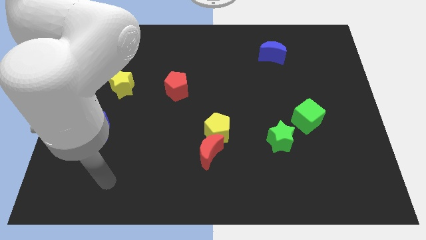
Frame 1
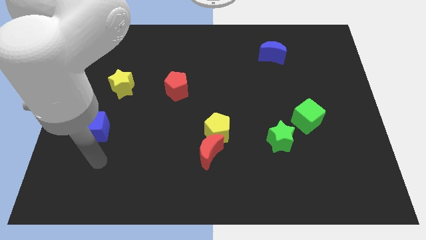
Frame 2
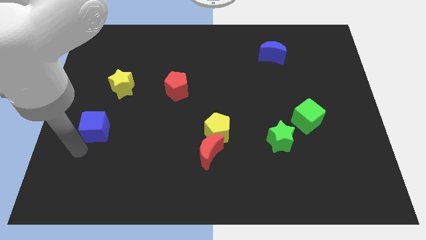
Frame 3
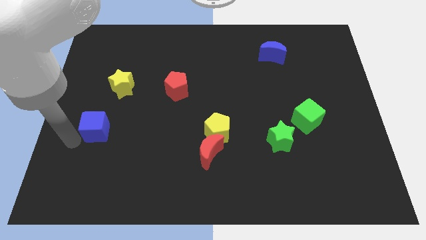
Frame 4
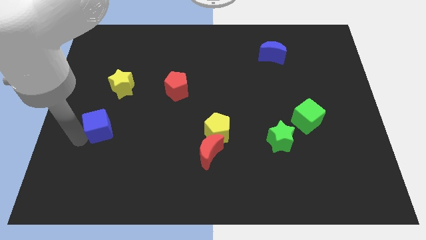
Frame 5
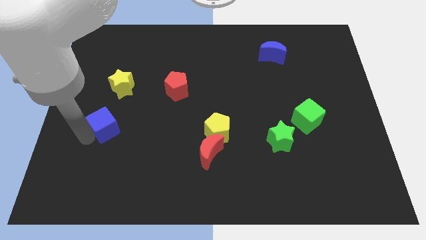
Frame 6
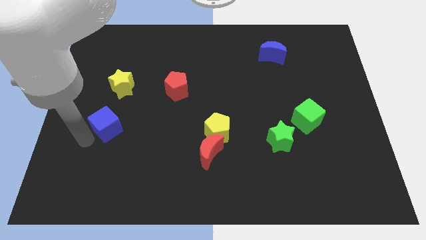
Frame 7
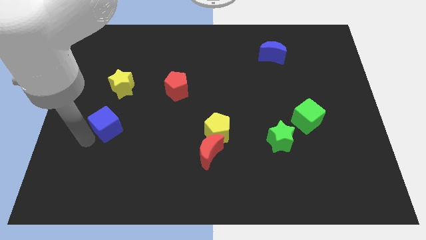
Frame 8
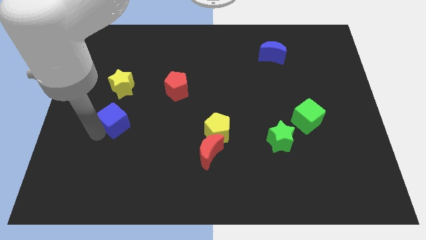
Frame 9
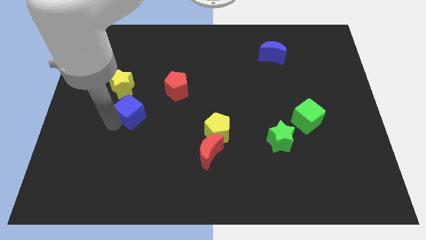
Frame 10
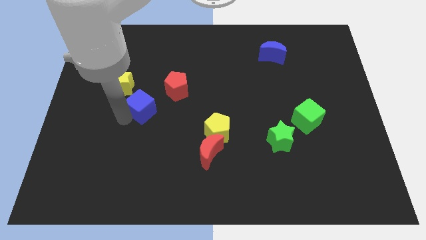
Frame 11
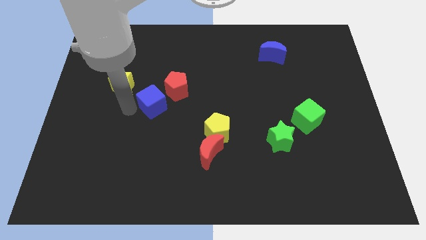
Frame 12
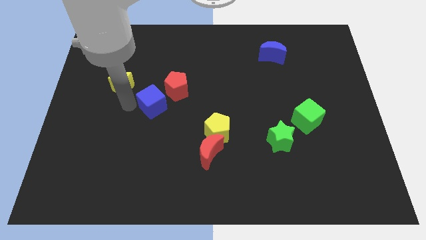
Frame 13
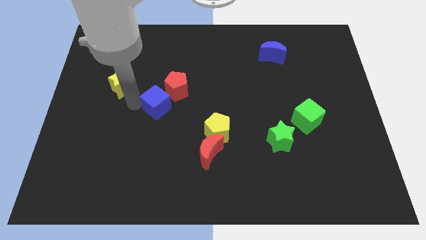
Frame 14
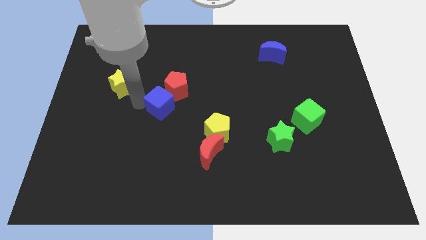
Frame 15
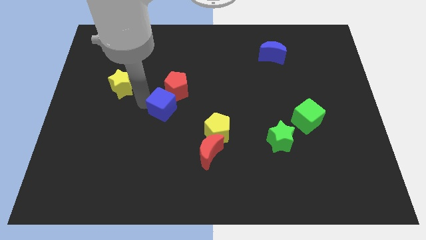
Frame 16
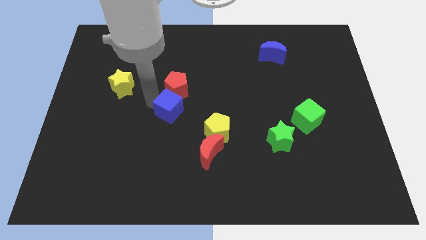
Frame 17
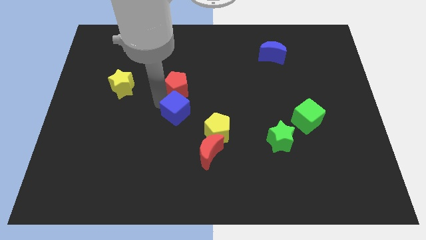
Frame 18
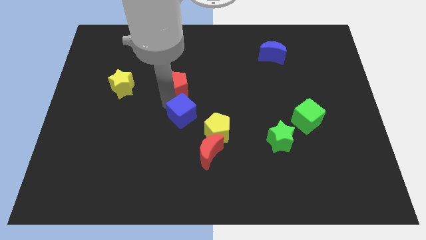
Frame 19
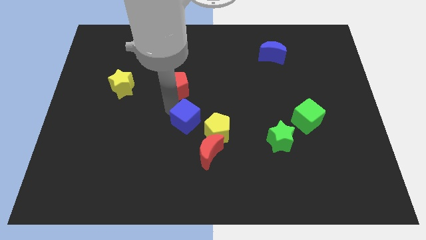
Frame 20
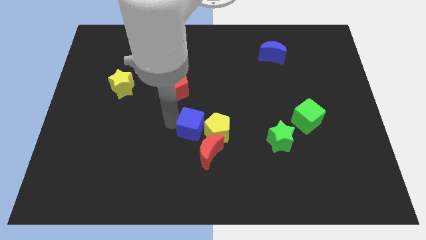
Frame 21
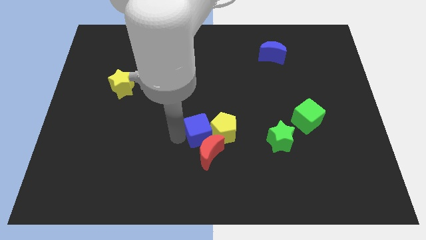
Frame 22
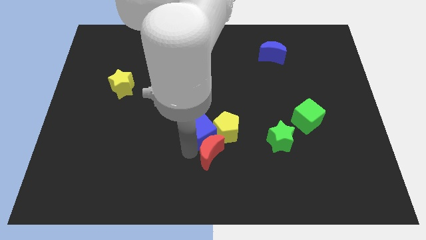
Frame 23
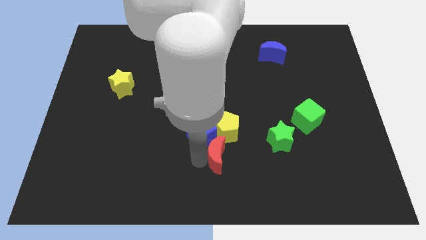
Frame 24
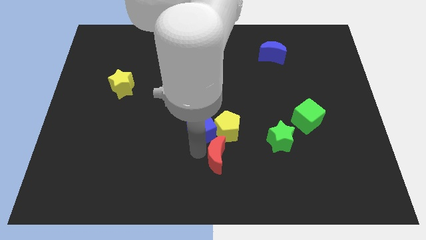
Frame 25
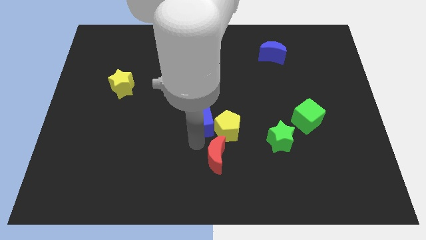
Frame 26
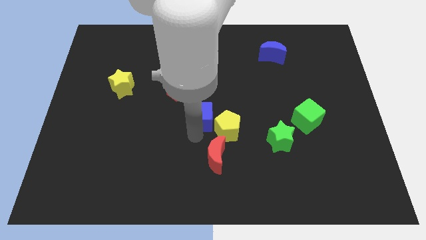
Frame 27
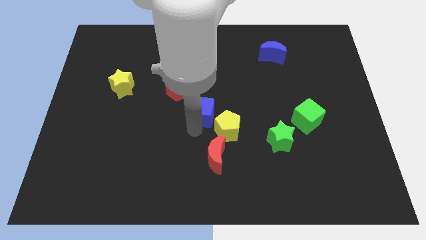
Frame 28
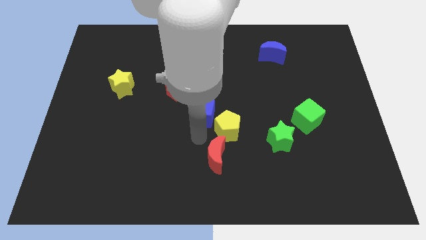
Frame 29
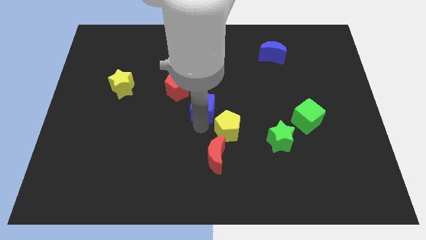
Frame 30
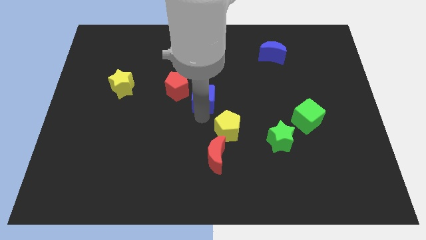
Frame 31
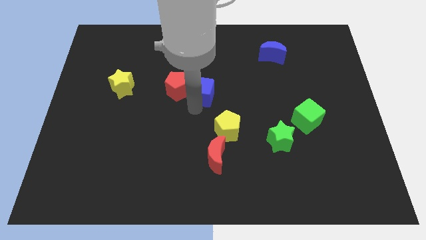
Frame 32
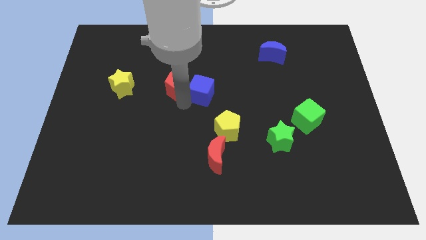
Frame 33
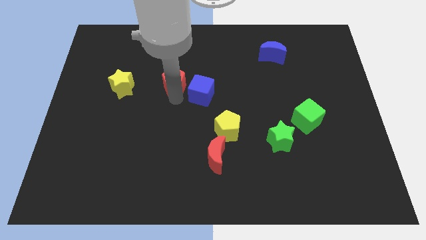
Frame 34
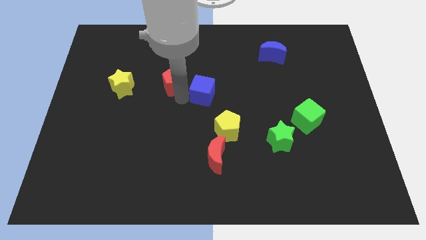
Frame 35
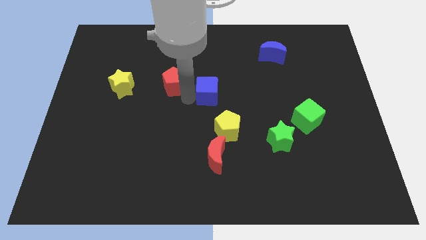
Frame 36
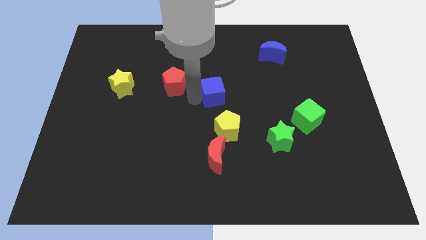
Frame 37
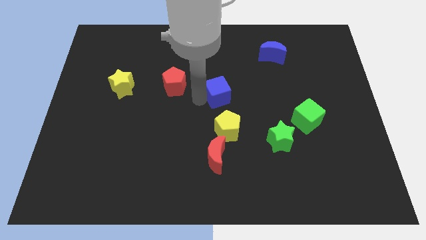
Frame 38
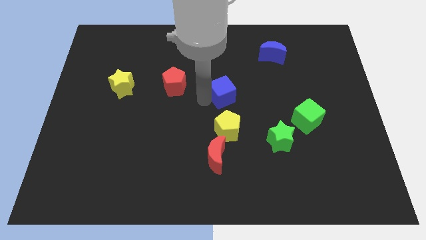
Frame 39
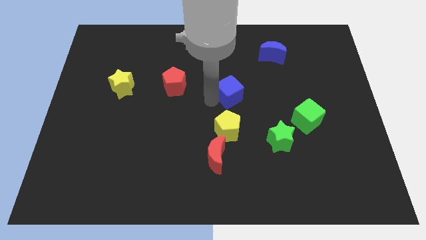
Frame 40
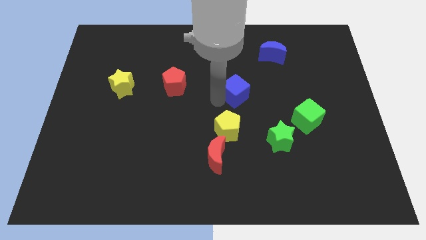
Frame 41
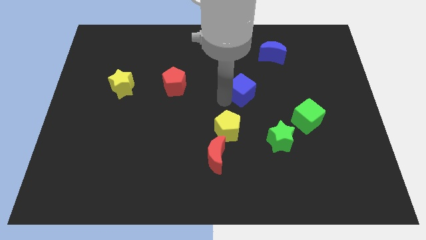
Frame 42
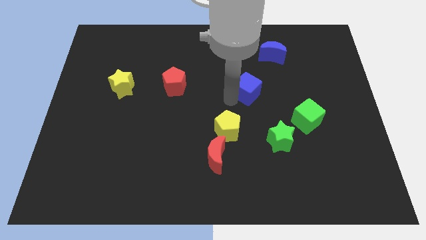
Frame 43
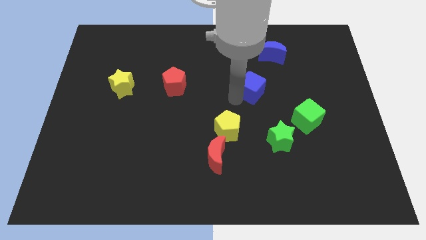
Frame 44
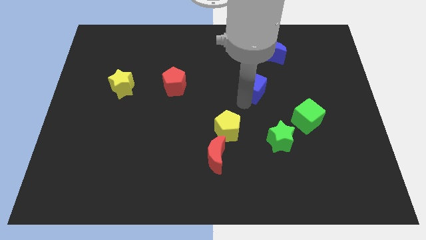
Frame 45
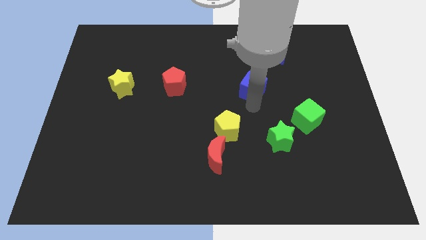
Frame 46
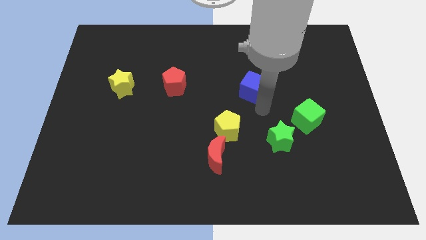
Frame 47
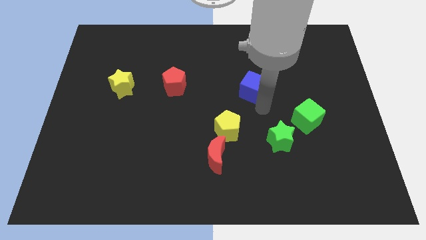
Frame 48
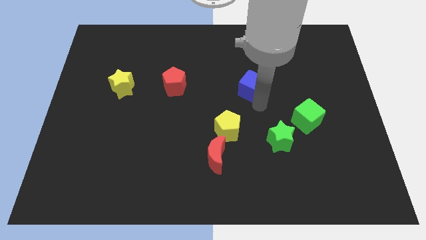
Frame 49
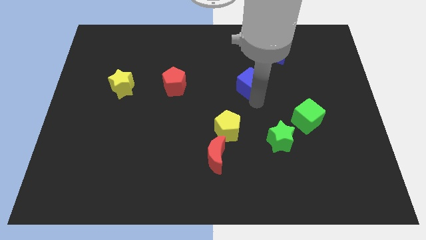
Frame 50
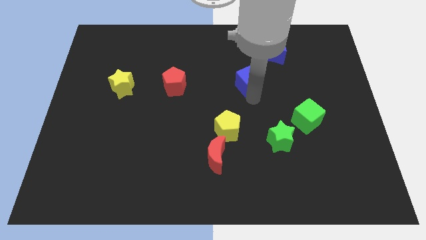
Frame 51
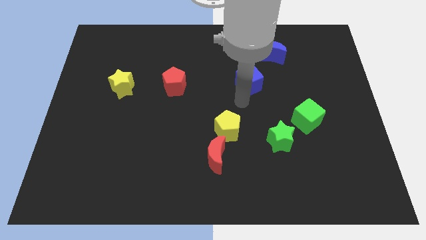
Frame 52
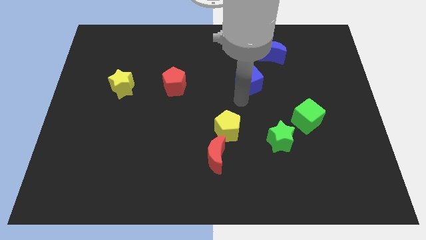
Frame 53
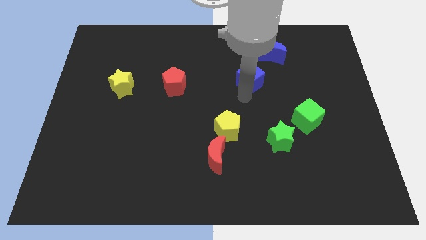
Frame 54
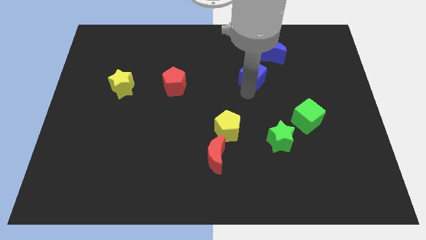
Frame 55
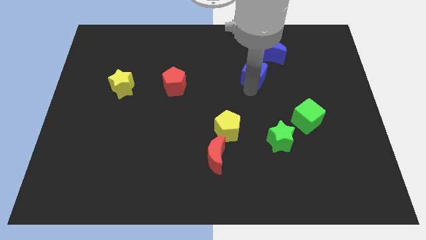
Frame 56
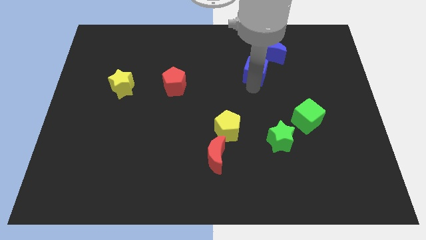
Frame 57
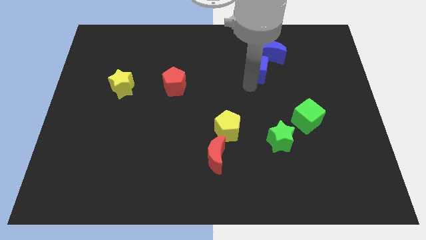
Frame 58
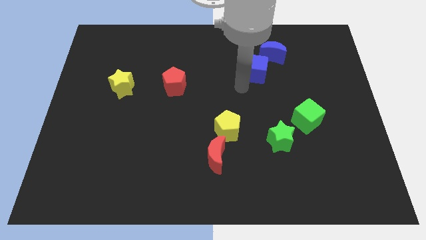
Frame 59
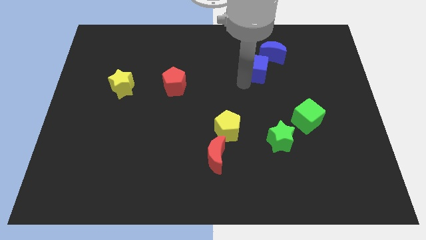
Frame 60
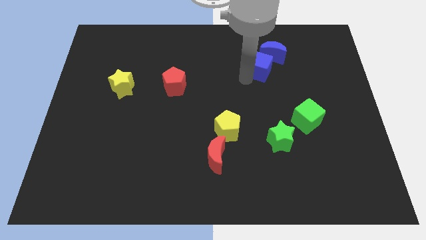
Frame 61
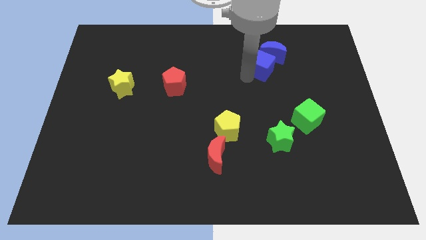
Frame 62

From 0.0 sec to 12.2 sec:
slide the blue cube towards the blue moon

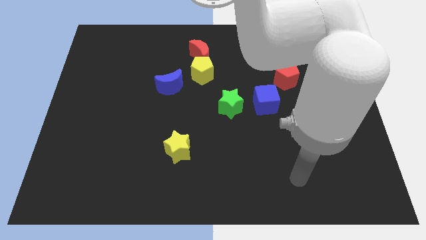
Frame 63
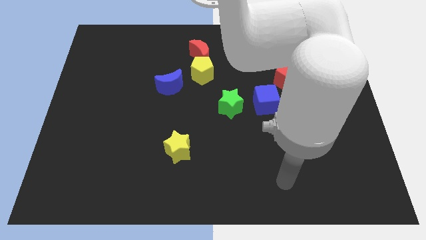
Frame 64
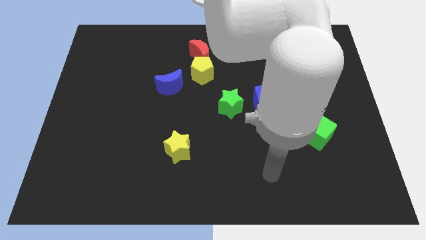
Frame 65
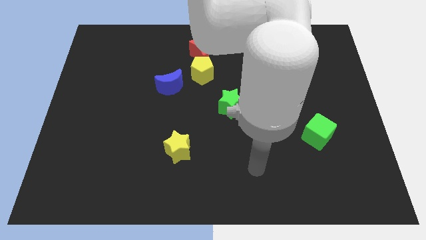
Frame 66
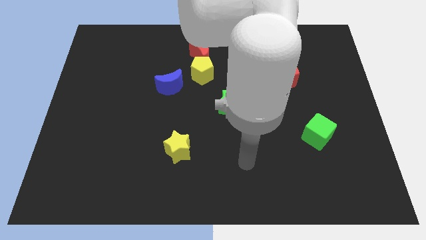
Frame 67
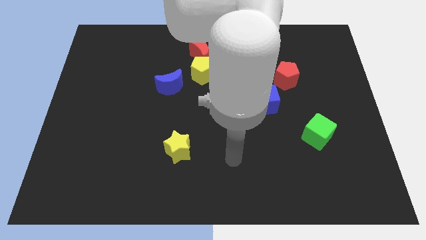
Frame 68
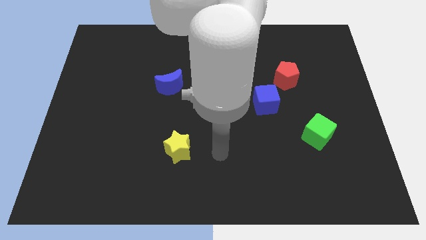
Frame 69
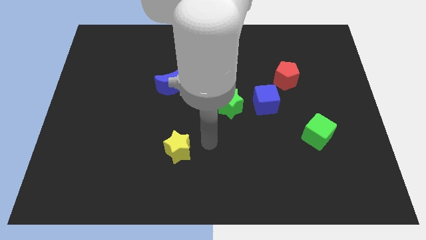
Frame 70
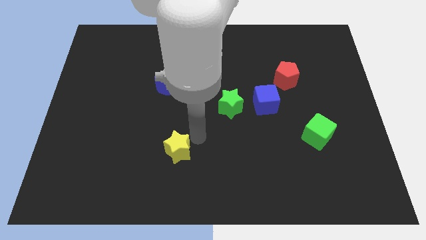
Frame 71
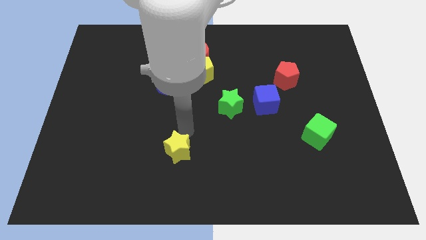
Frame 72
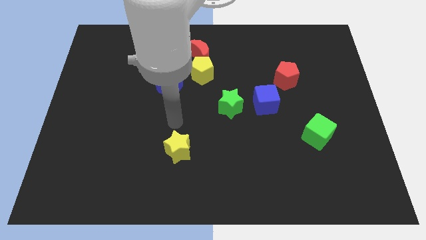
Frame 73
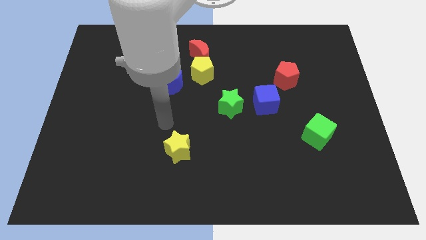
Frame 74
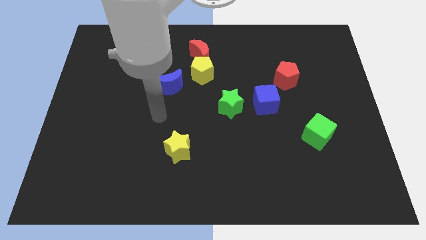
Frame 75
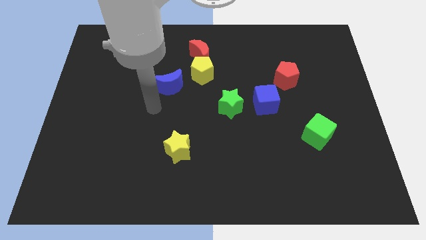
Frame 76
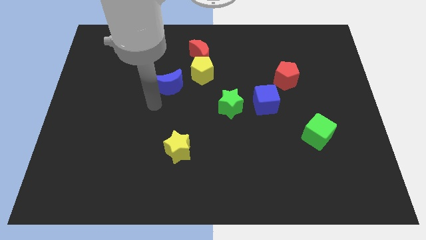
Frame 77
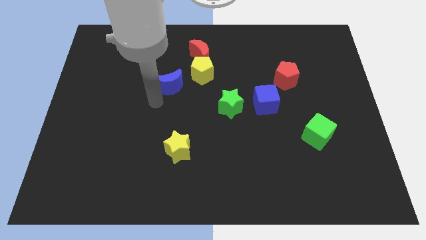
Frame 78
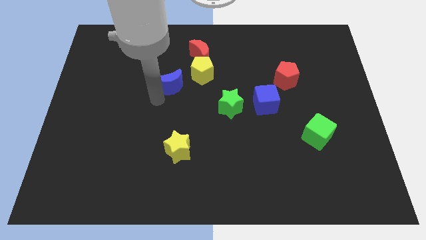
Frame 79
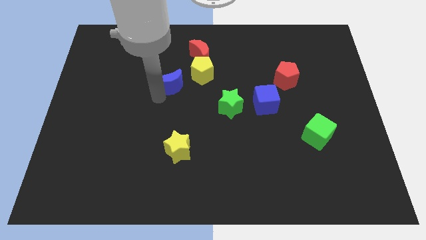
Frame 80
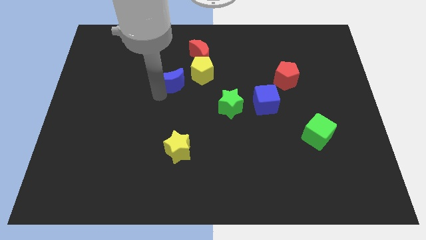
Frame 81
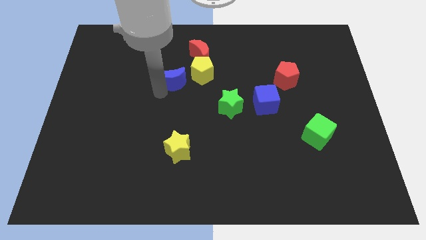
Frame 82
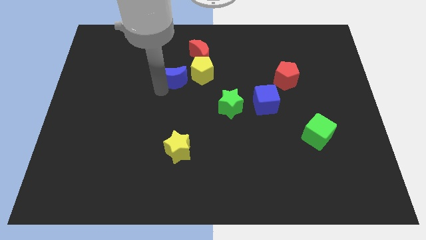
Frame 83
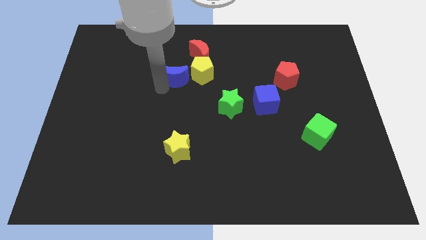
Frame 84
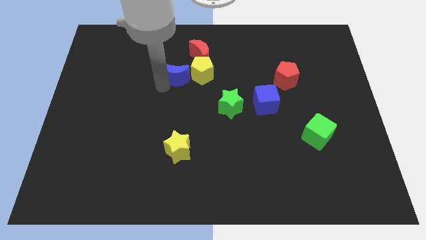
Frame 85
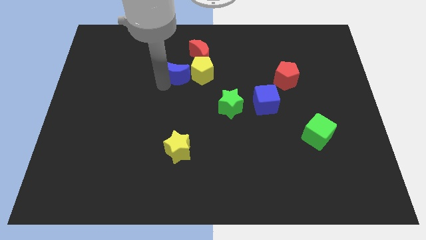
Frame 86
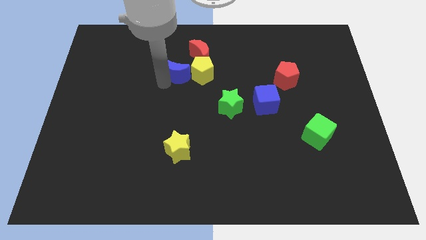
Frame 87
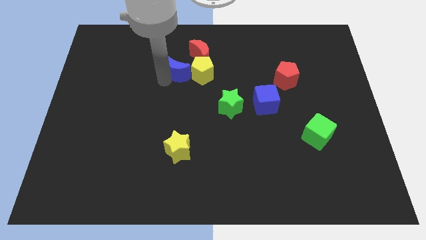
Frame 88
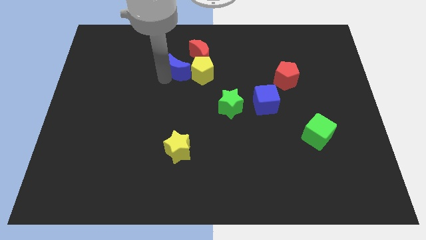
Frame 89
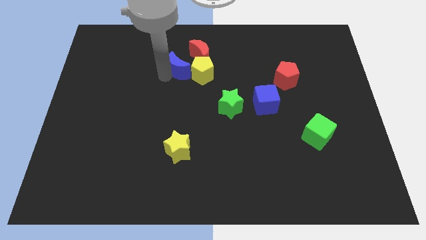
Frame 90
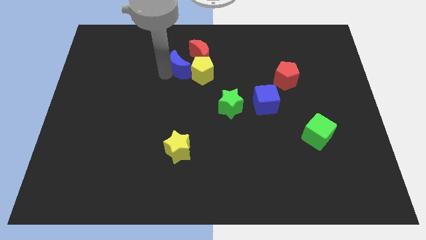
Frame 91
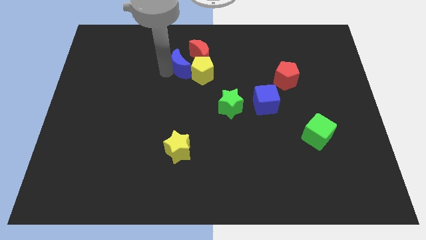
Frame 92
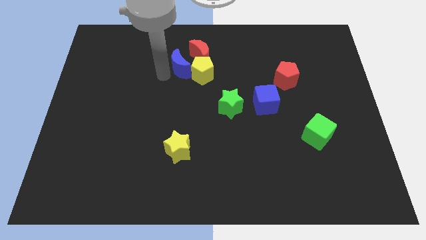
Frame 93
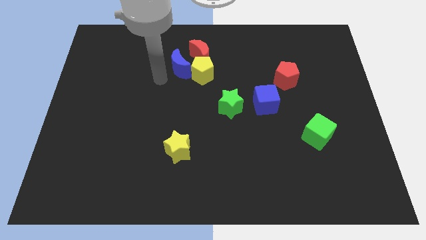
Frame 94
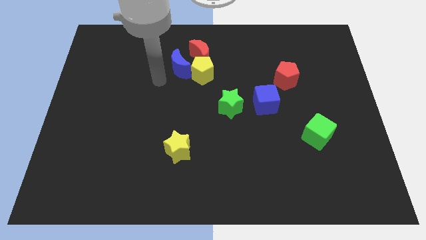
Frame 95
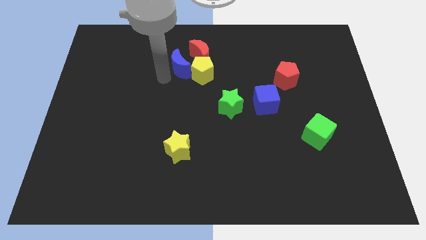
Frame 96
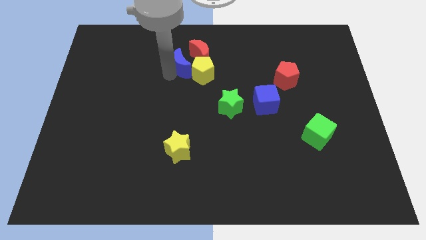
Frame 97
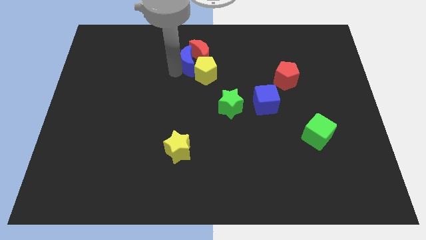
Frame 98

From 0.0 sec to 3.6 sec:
push the blue moon next to the red moon
